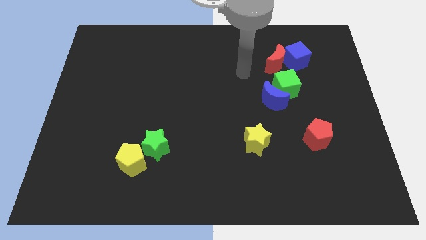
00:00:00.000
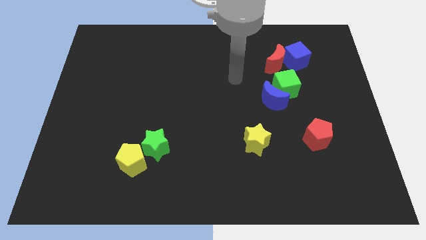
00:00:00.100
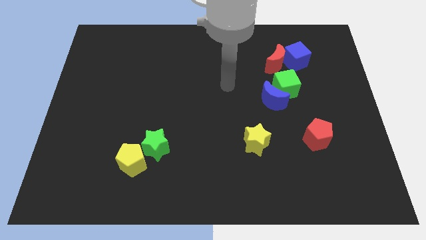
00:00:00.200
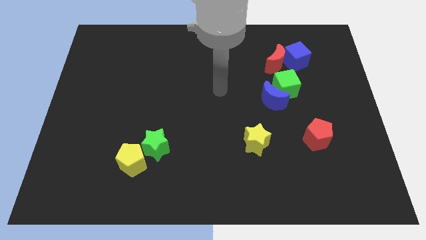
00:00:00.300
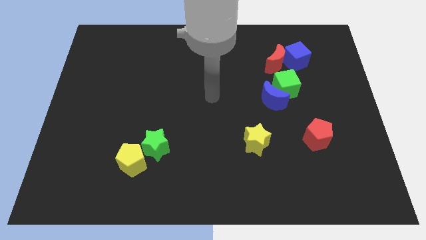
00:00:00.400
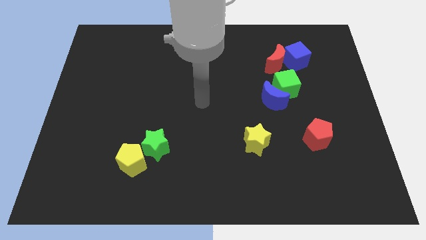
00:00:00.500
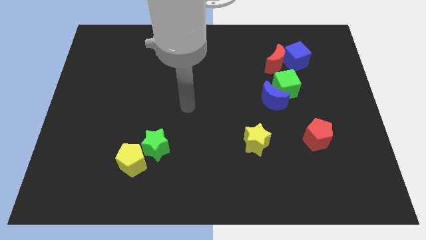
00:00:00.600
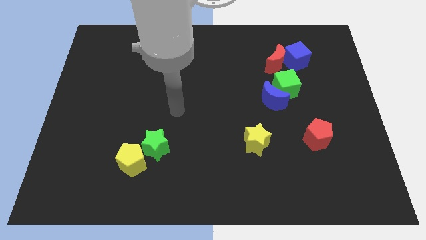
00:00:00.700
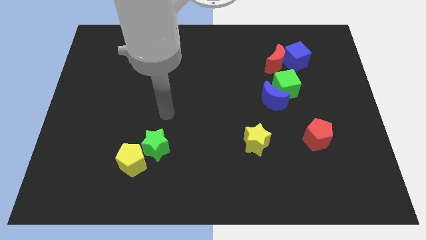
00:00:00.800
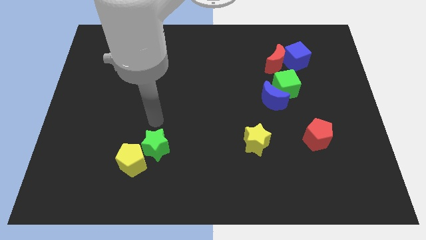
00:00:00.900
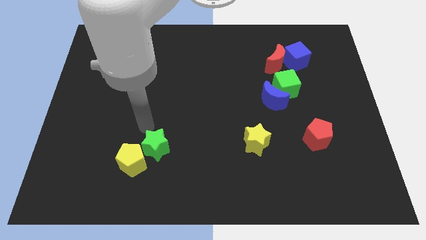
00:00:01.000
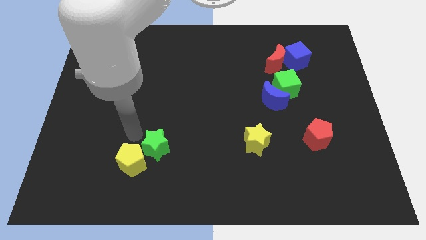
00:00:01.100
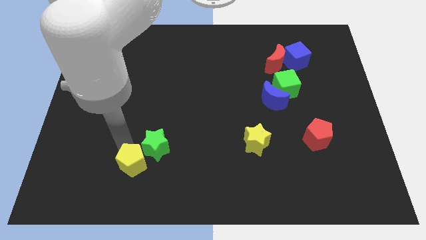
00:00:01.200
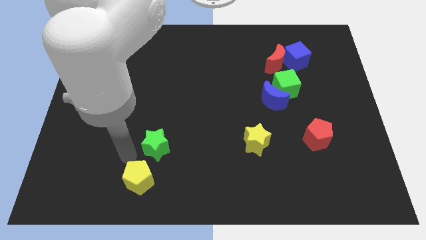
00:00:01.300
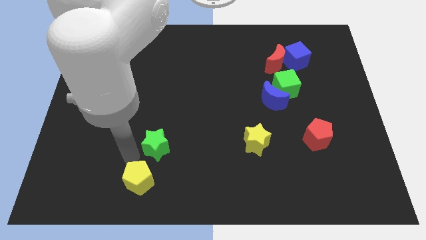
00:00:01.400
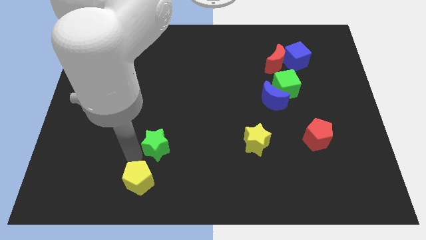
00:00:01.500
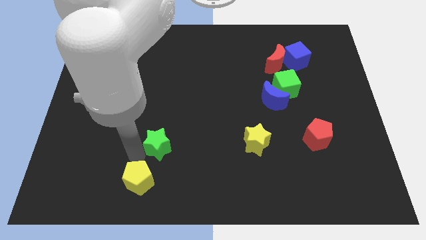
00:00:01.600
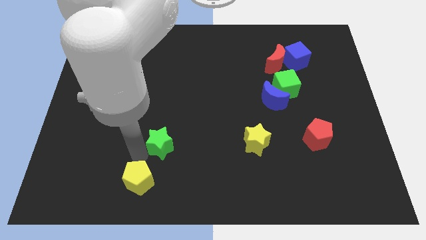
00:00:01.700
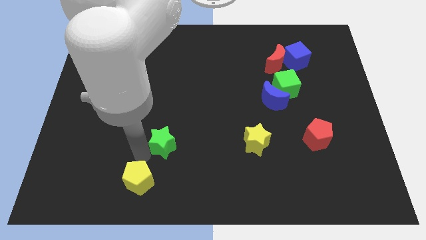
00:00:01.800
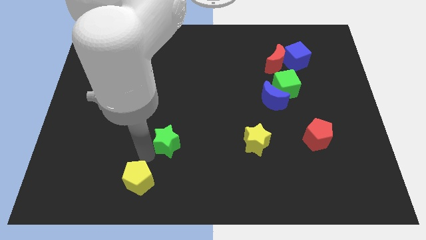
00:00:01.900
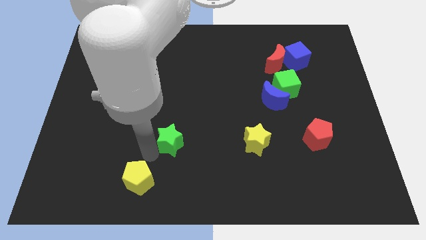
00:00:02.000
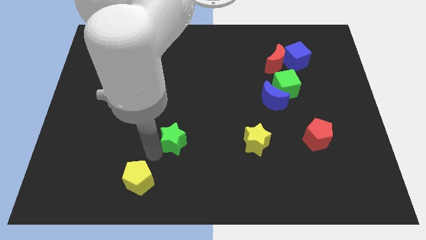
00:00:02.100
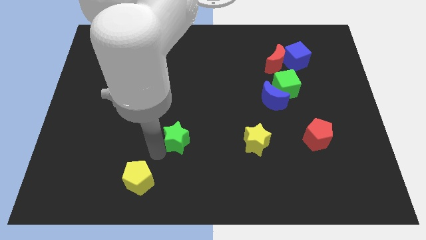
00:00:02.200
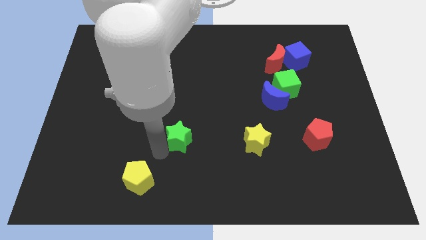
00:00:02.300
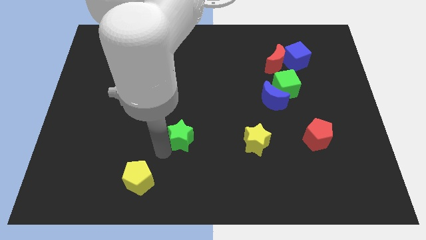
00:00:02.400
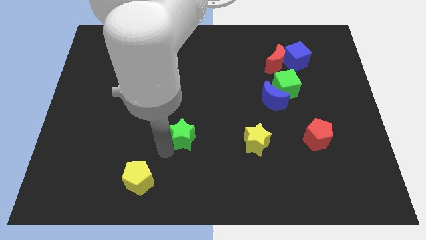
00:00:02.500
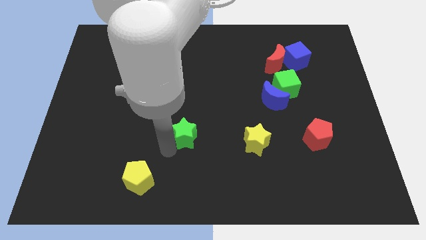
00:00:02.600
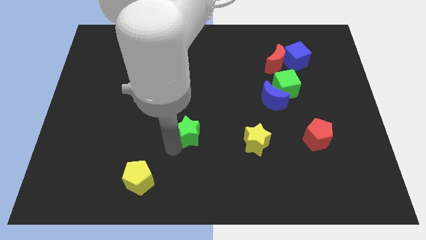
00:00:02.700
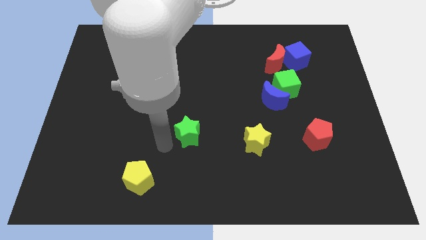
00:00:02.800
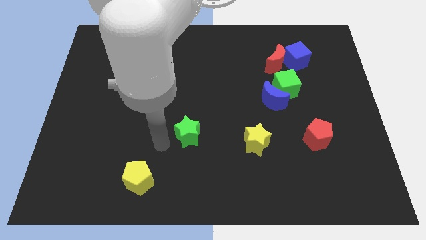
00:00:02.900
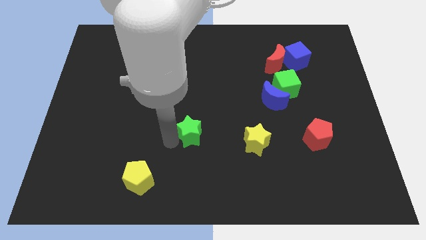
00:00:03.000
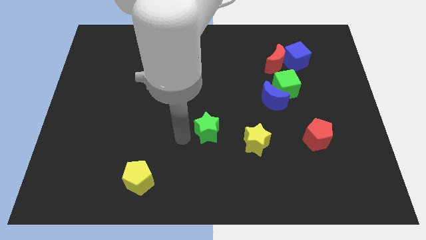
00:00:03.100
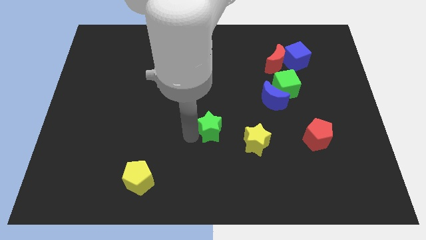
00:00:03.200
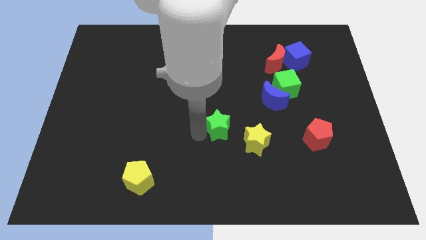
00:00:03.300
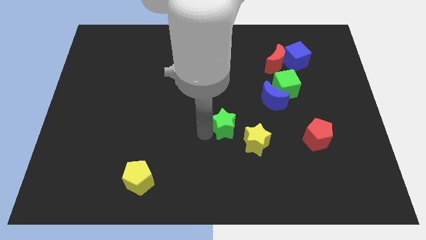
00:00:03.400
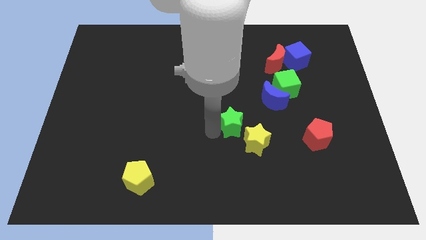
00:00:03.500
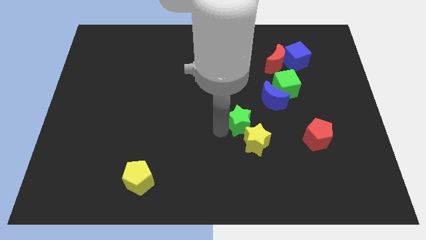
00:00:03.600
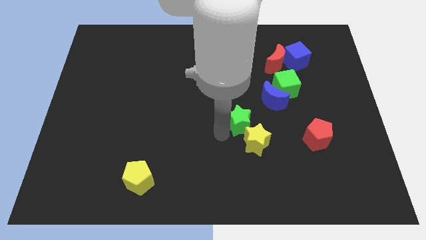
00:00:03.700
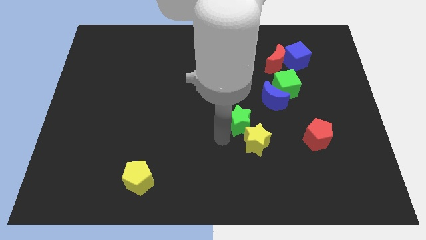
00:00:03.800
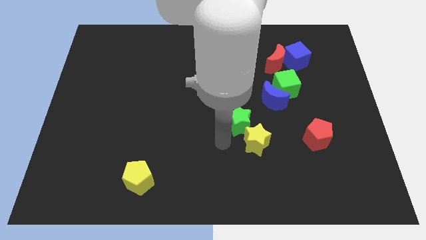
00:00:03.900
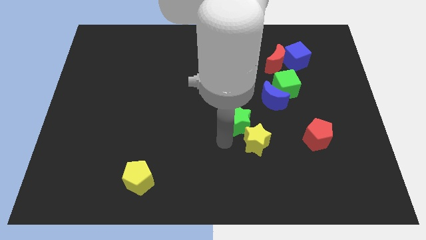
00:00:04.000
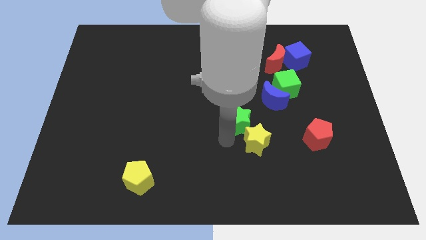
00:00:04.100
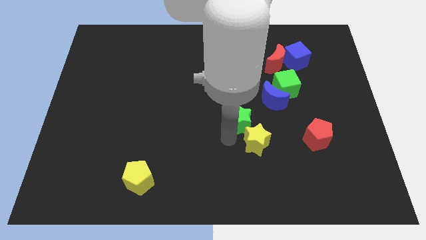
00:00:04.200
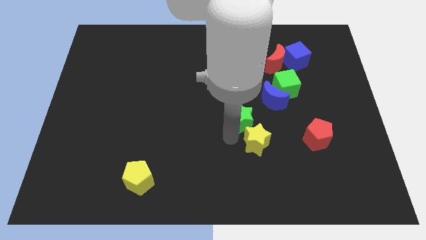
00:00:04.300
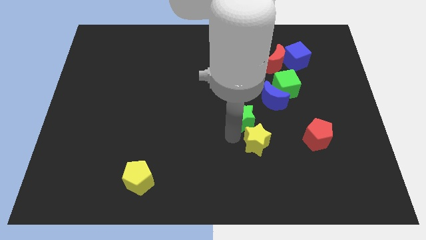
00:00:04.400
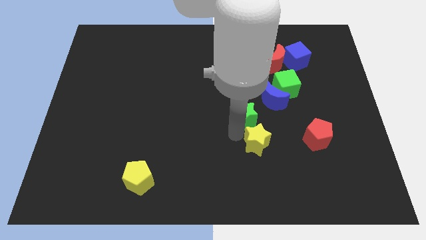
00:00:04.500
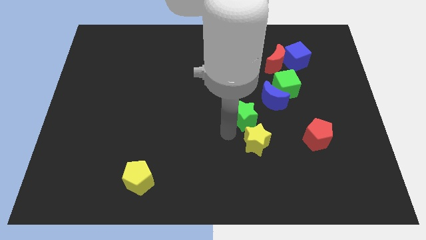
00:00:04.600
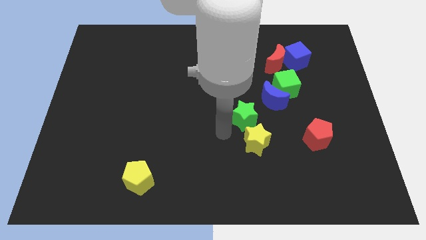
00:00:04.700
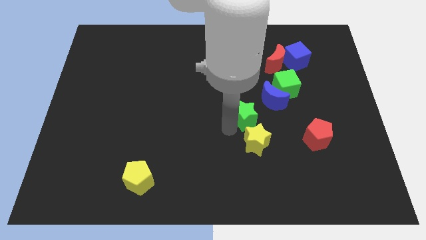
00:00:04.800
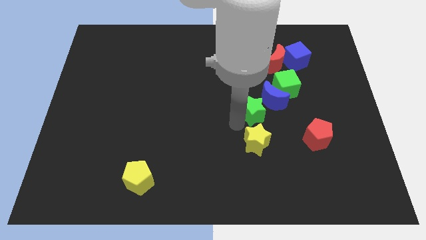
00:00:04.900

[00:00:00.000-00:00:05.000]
push the green star to the blue moon

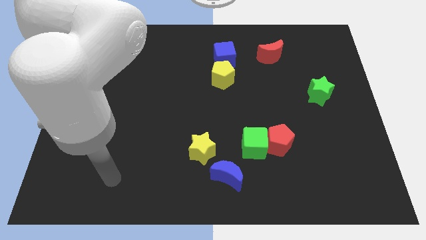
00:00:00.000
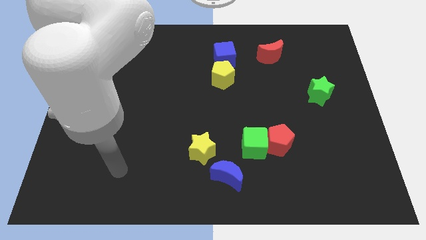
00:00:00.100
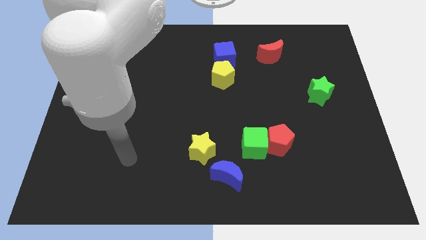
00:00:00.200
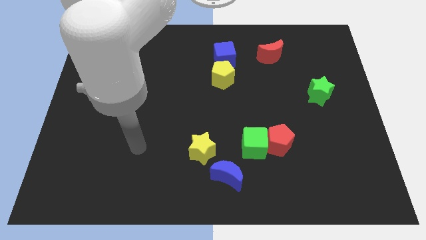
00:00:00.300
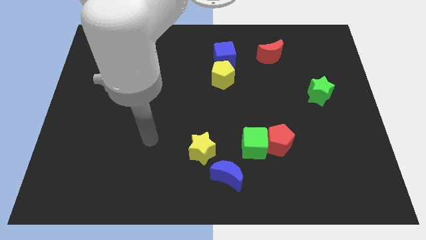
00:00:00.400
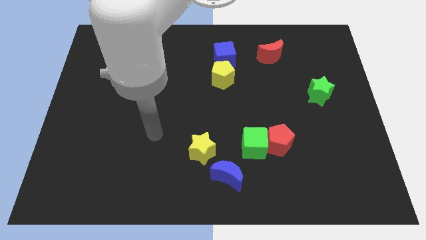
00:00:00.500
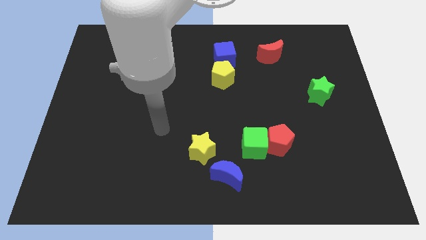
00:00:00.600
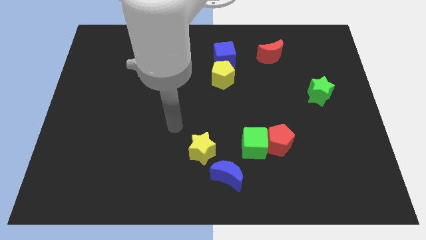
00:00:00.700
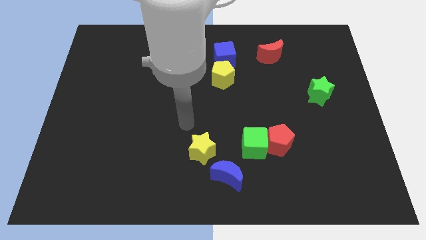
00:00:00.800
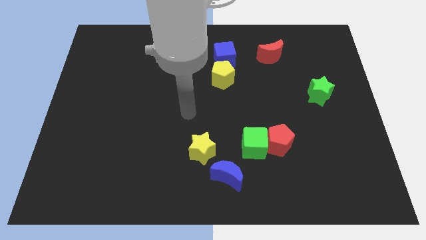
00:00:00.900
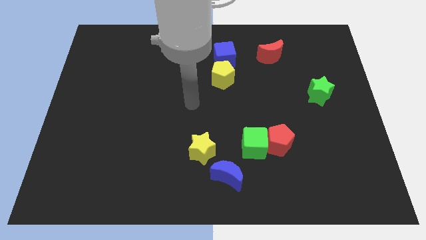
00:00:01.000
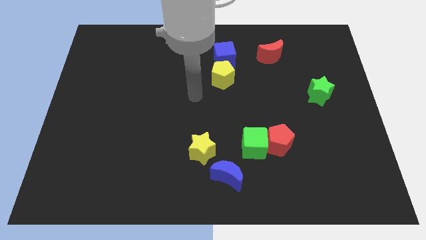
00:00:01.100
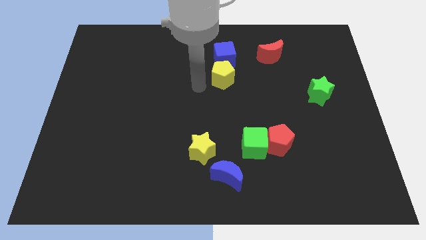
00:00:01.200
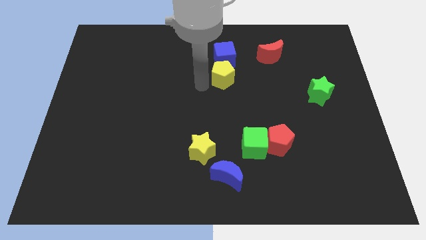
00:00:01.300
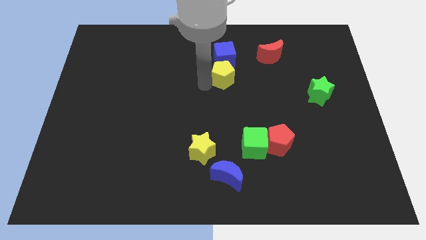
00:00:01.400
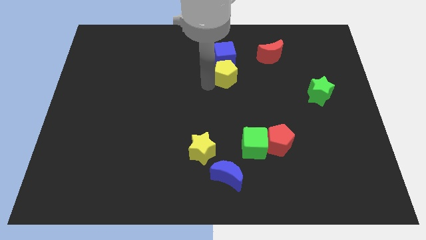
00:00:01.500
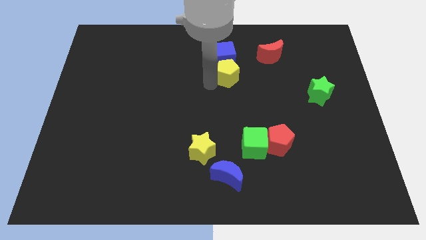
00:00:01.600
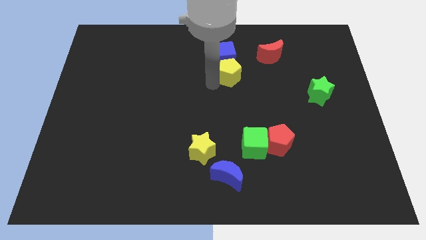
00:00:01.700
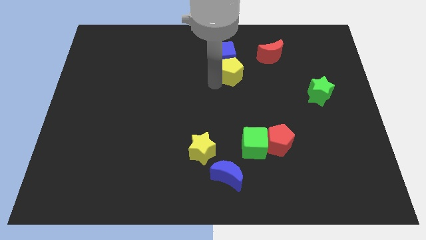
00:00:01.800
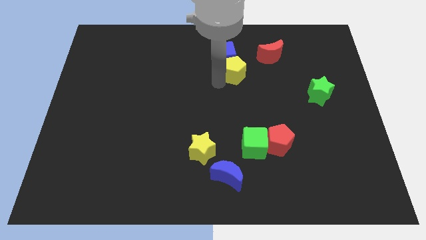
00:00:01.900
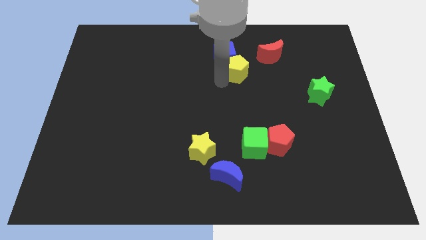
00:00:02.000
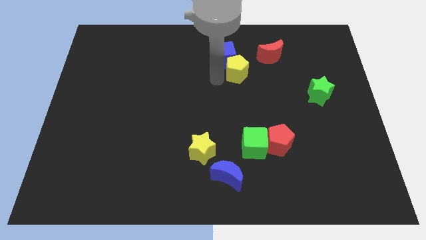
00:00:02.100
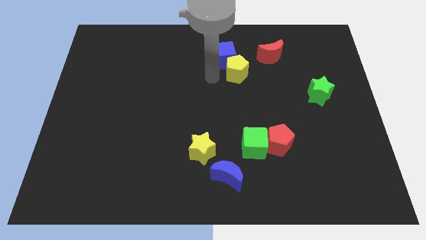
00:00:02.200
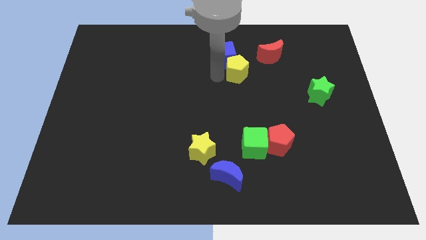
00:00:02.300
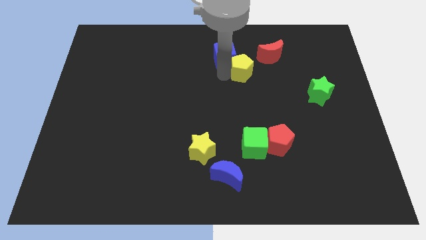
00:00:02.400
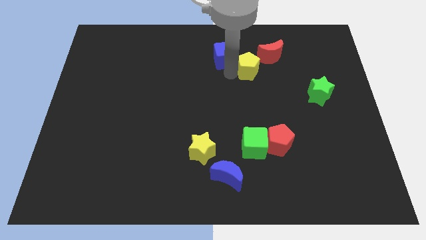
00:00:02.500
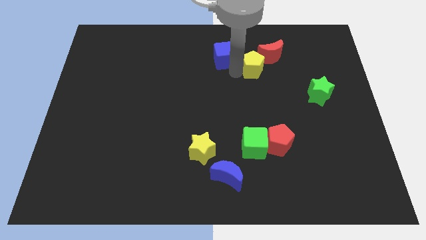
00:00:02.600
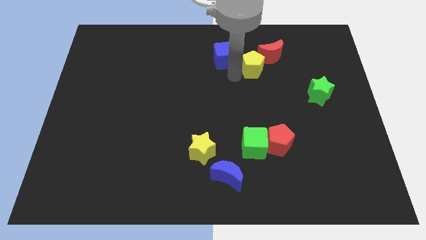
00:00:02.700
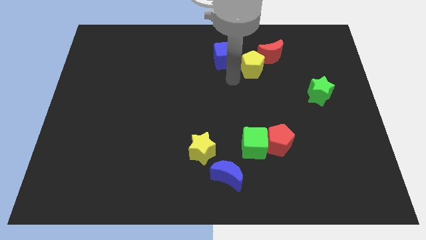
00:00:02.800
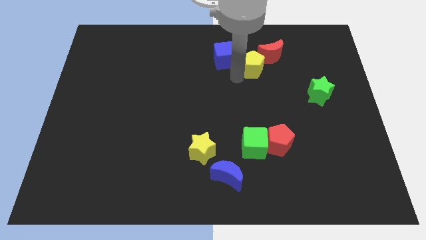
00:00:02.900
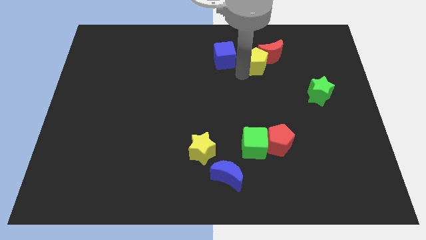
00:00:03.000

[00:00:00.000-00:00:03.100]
push the yellow pentagon next to the red moon
